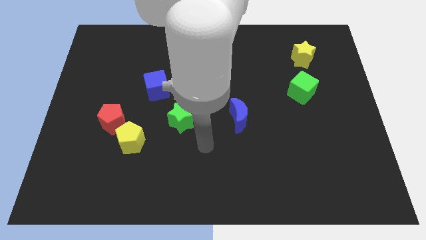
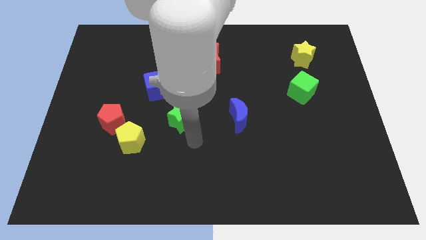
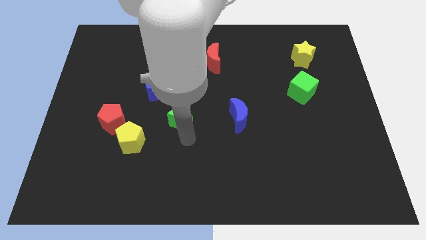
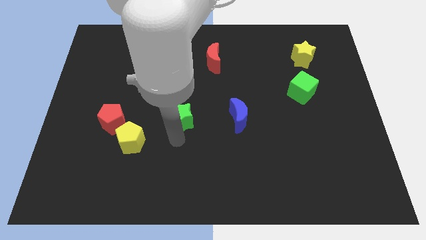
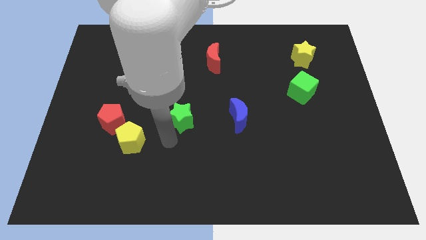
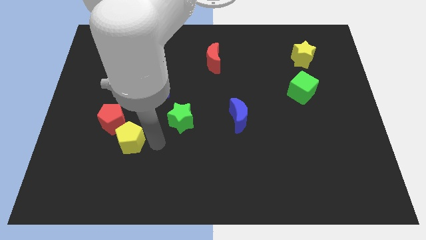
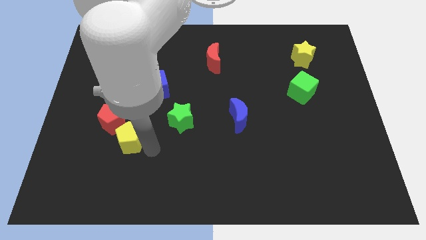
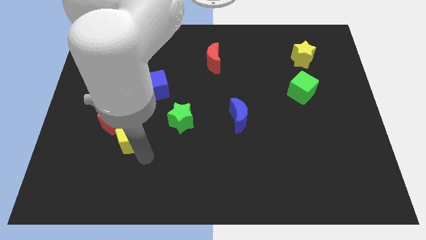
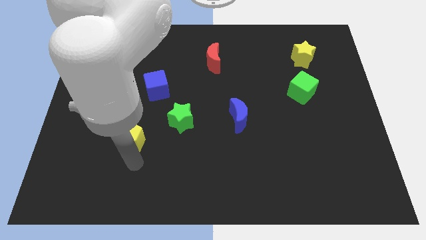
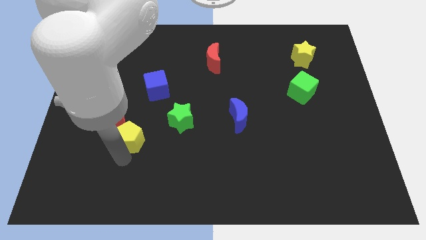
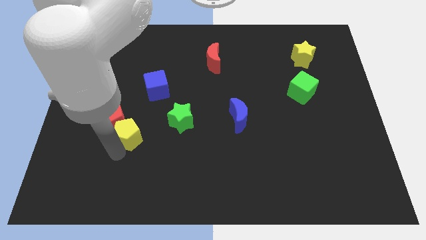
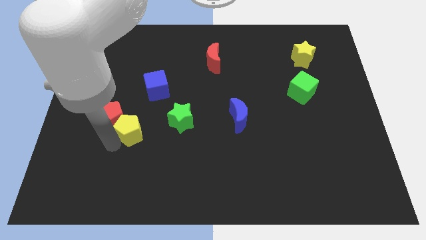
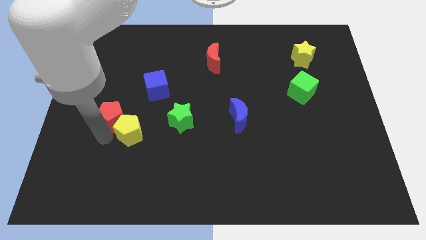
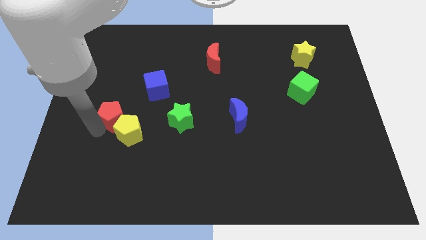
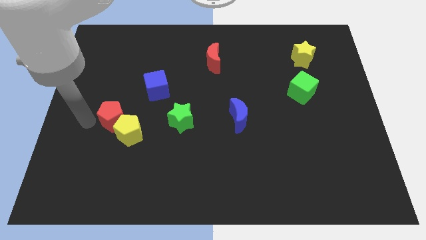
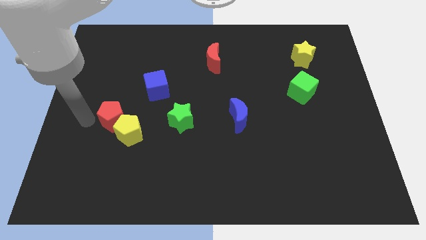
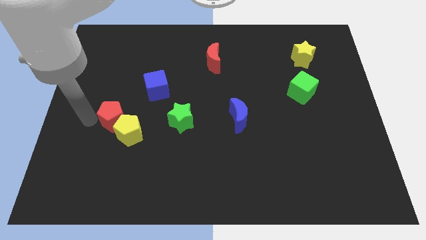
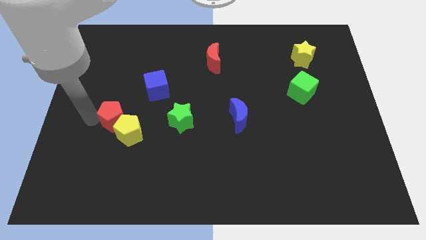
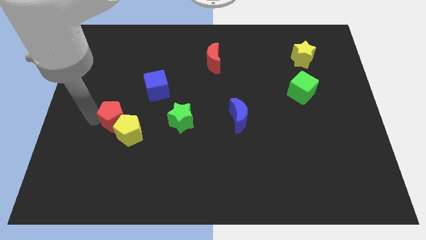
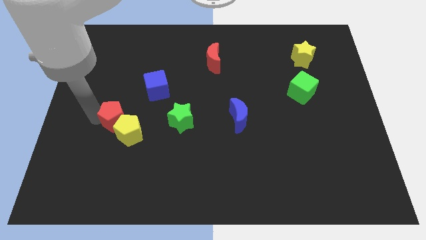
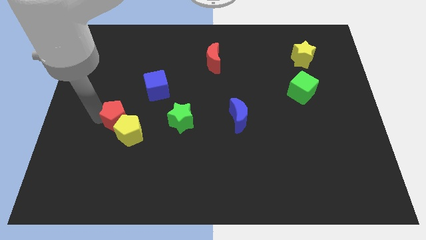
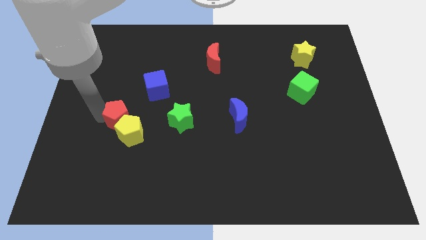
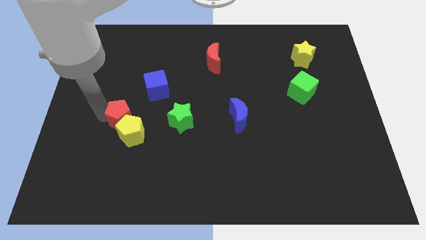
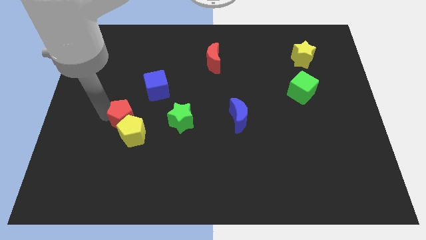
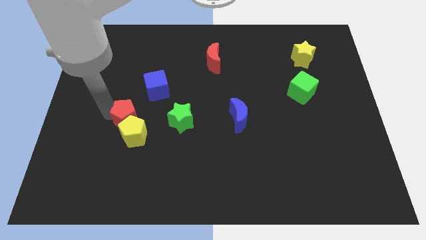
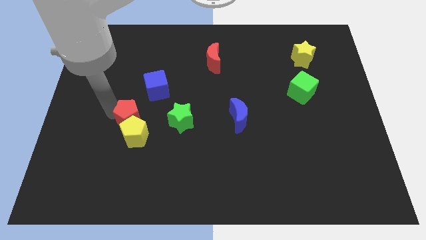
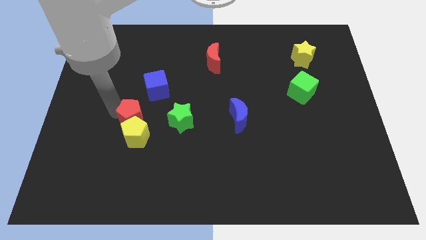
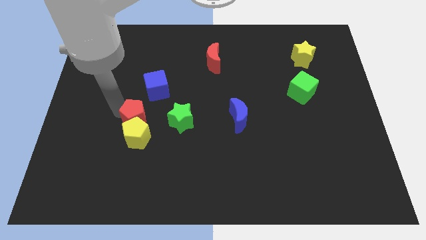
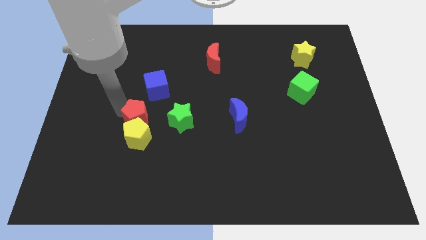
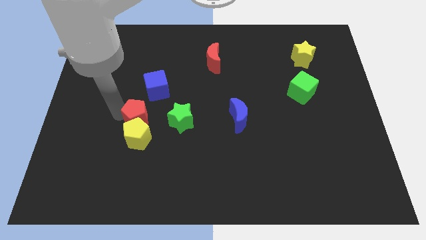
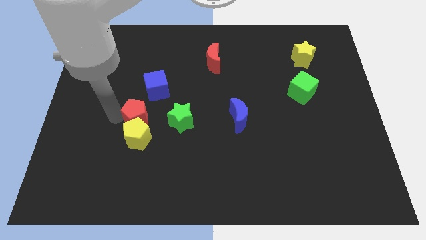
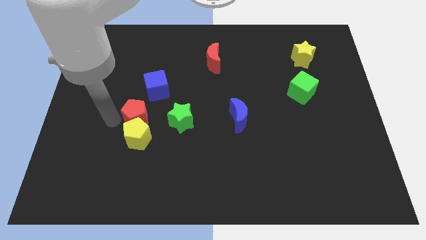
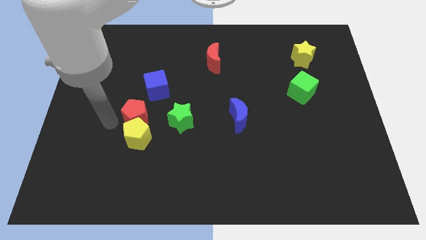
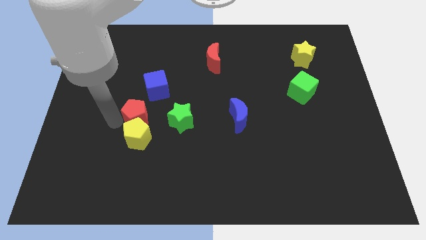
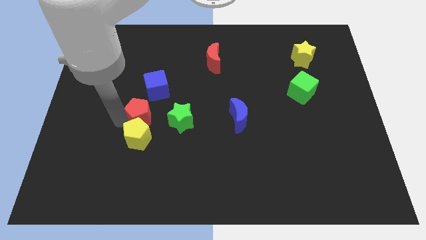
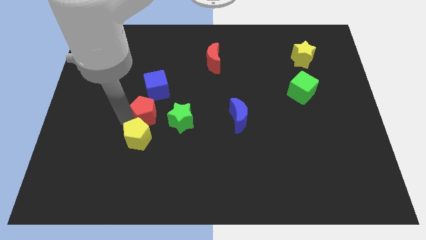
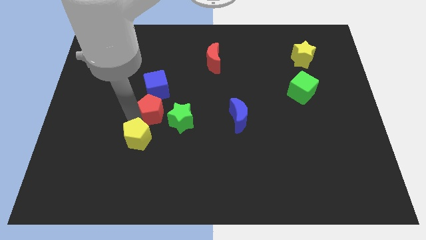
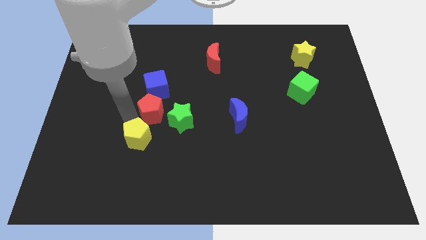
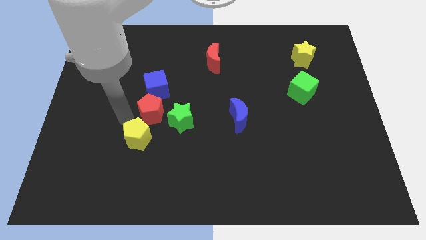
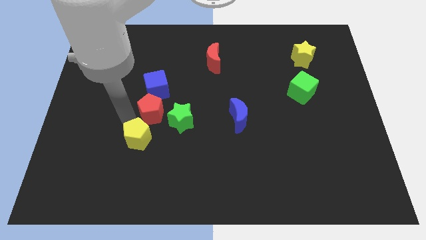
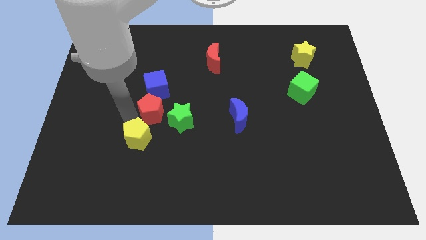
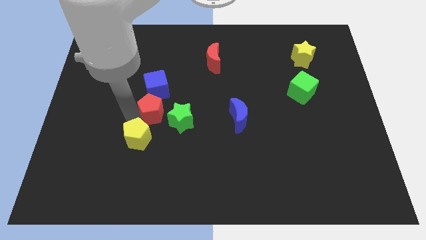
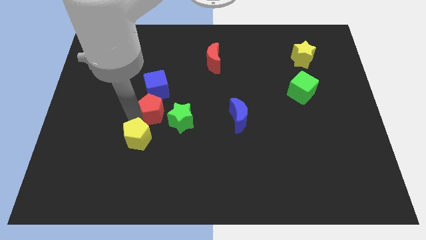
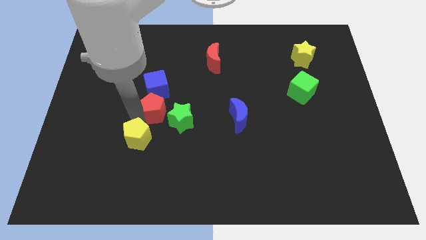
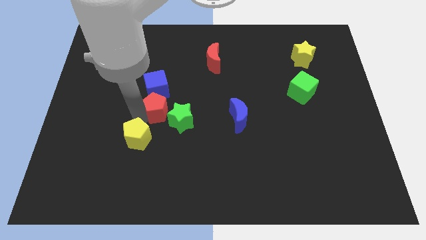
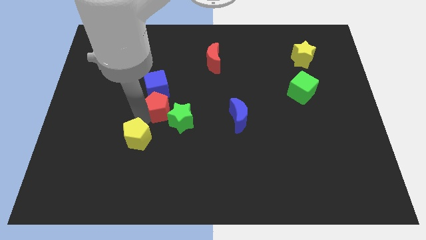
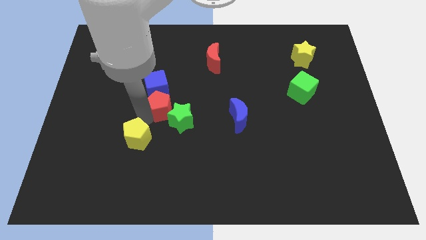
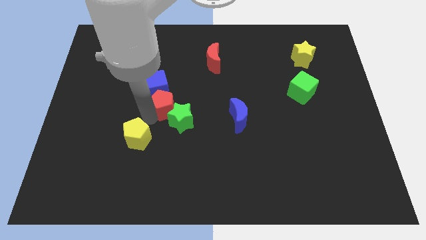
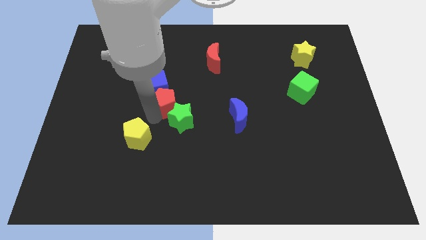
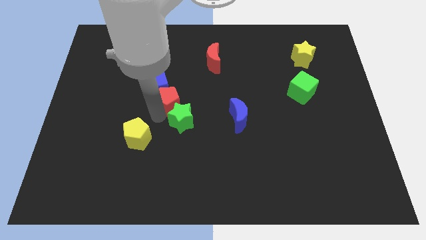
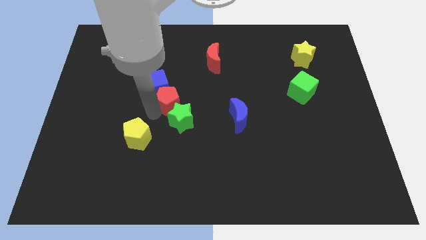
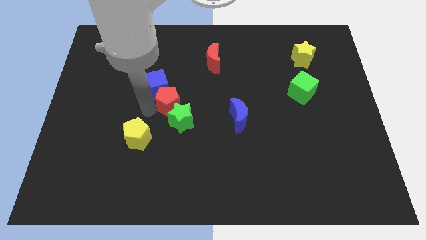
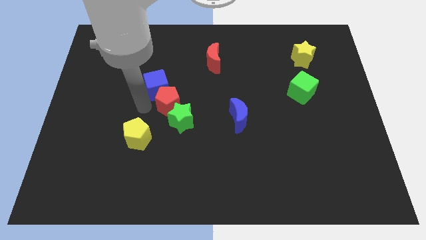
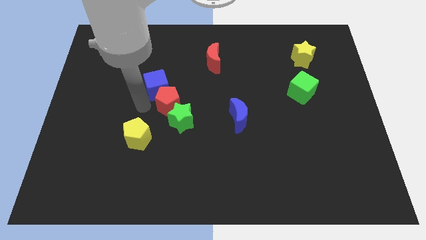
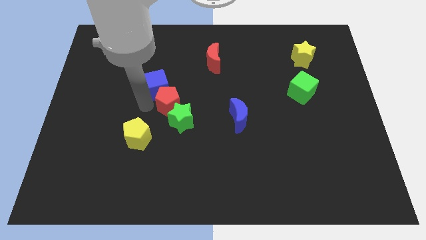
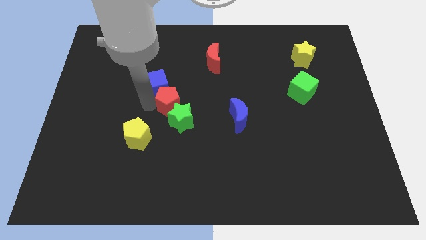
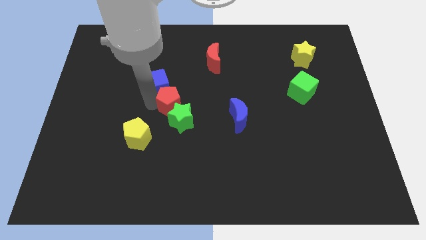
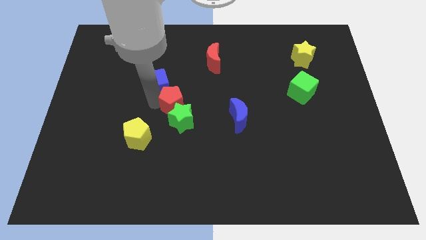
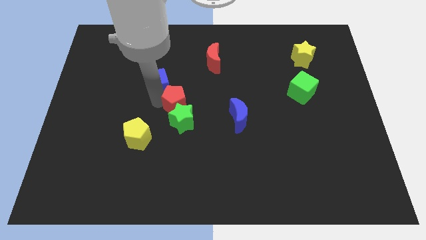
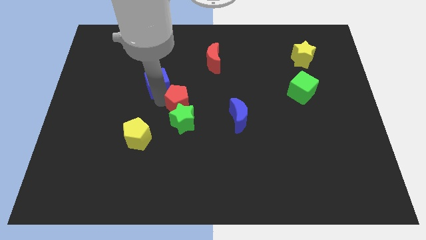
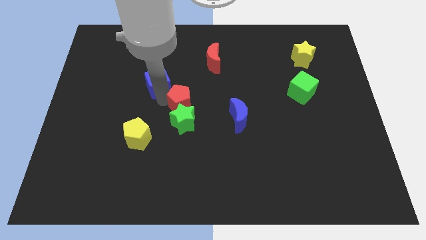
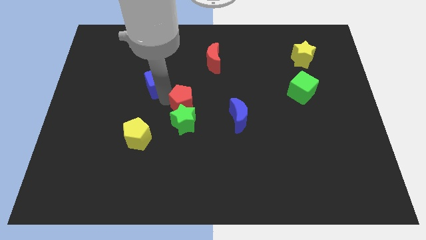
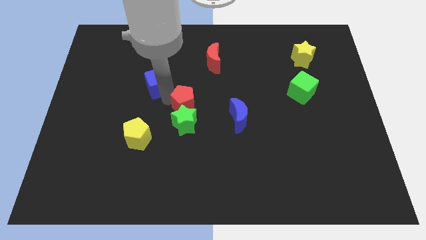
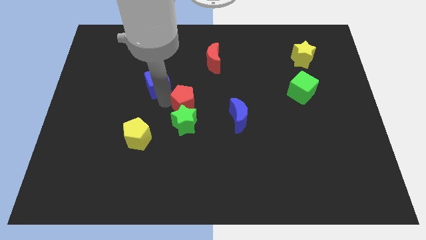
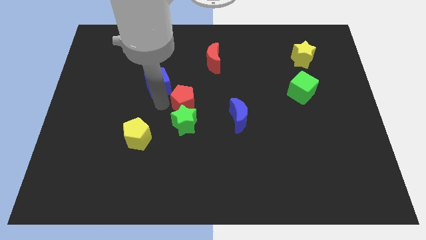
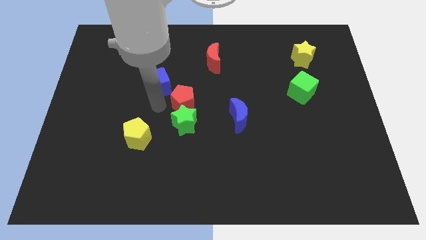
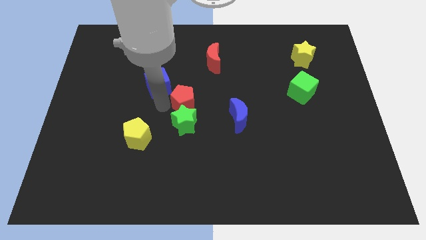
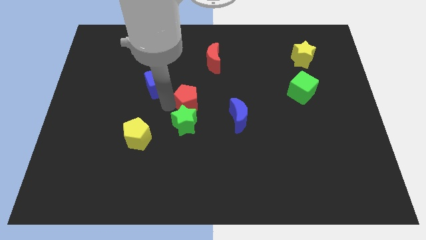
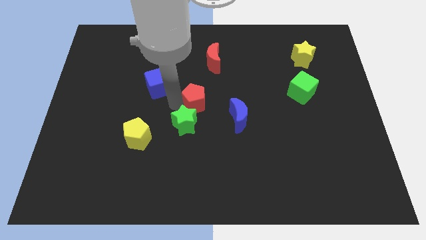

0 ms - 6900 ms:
move the red pentagon diagonally up and to the left of the blue moon
